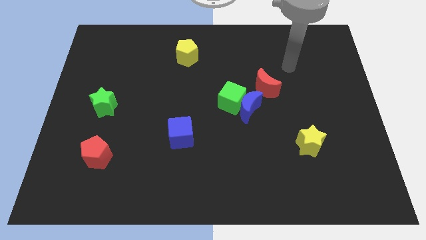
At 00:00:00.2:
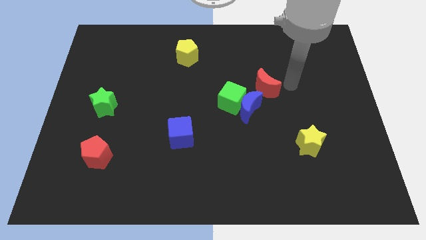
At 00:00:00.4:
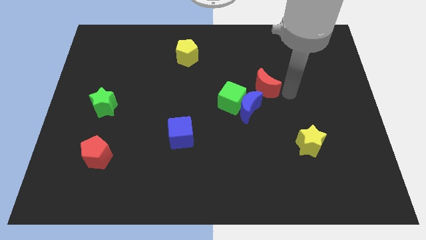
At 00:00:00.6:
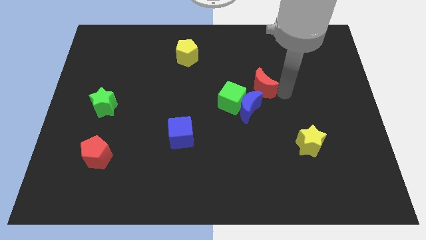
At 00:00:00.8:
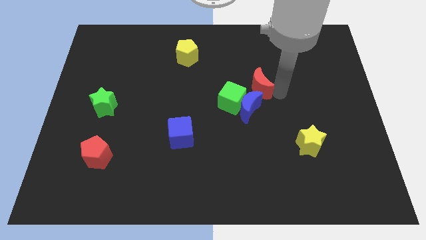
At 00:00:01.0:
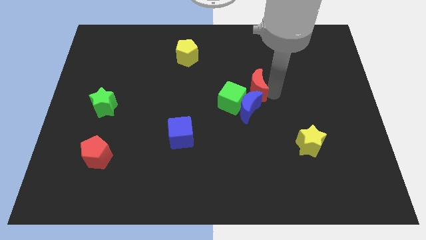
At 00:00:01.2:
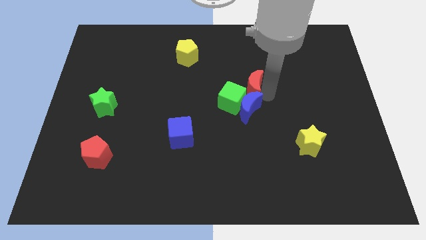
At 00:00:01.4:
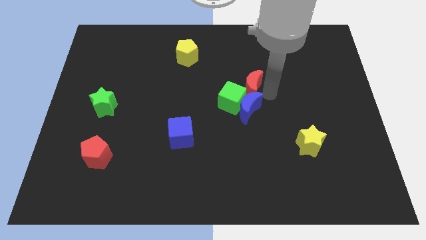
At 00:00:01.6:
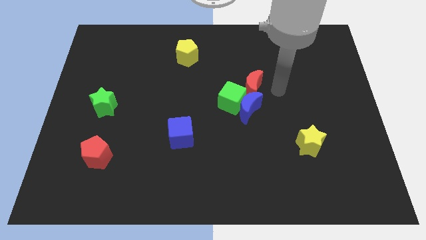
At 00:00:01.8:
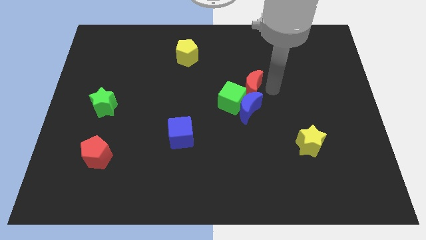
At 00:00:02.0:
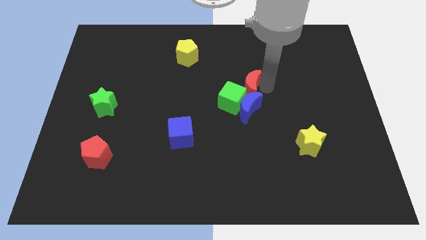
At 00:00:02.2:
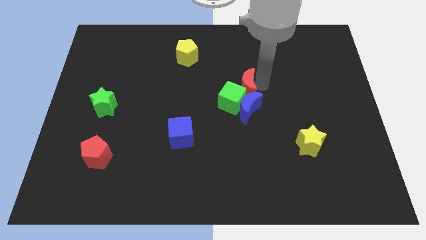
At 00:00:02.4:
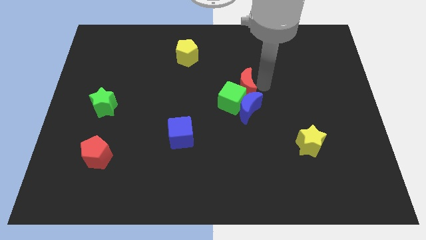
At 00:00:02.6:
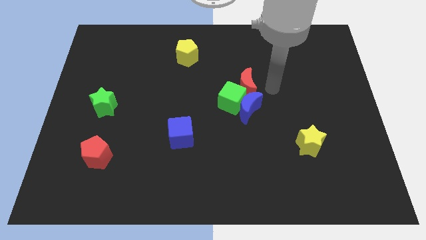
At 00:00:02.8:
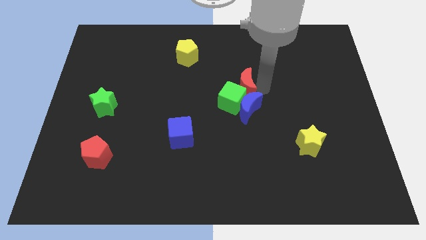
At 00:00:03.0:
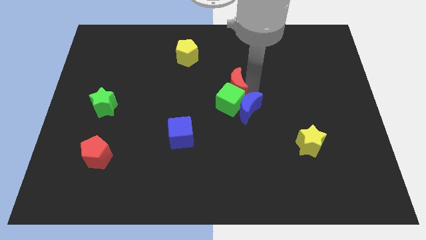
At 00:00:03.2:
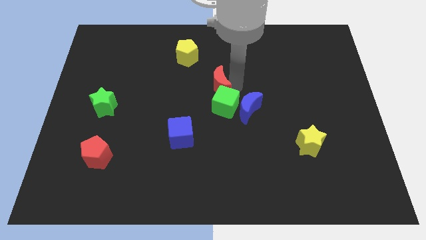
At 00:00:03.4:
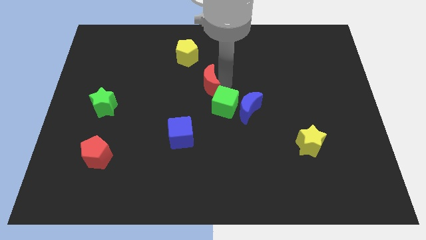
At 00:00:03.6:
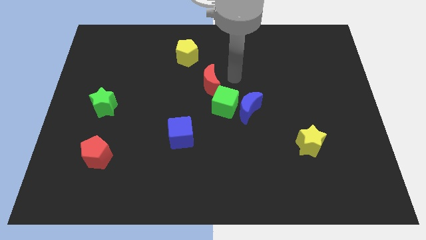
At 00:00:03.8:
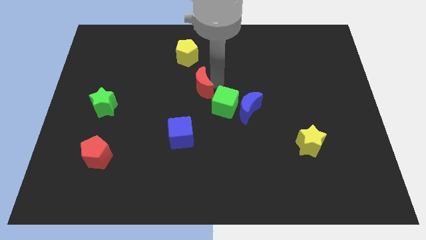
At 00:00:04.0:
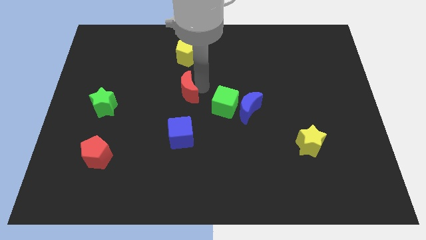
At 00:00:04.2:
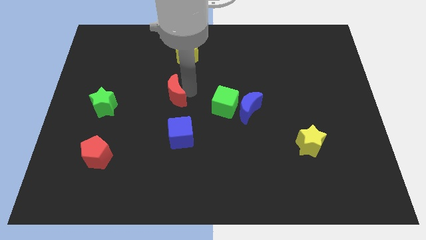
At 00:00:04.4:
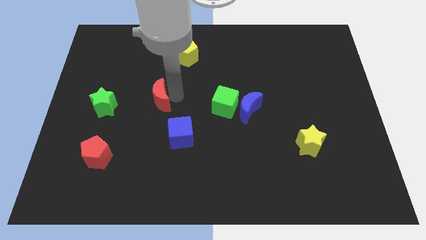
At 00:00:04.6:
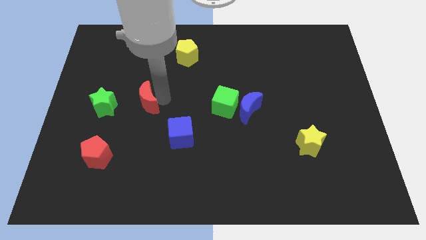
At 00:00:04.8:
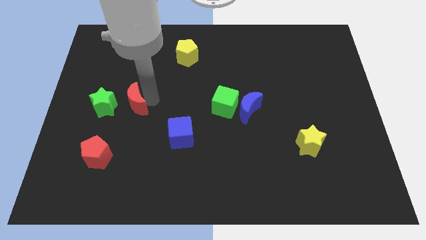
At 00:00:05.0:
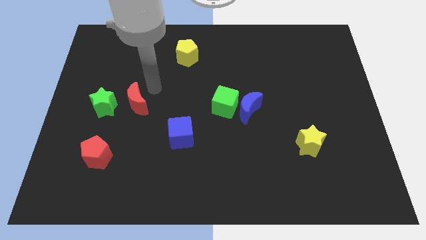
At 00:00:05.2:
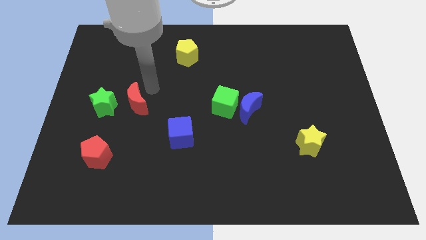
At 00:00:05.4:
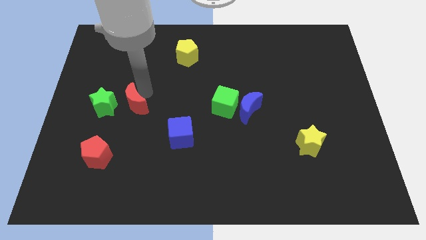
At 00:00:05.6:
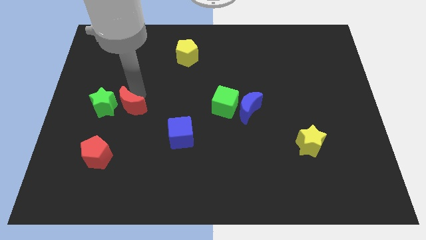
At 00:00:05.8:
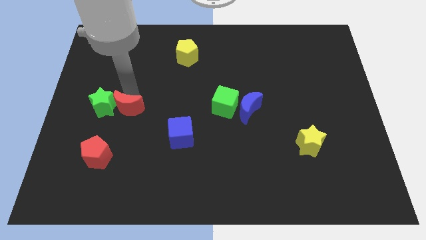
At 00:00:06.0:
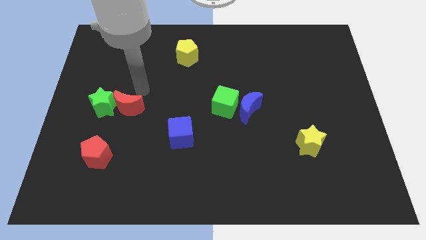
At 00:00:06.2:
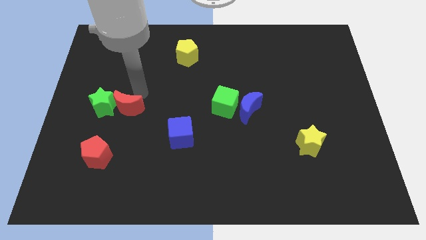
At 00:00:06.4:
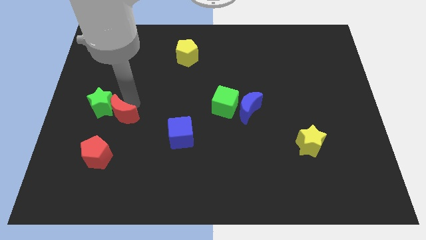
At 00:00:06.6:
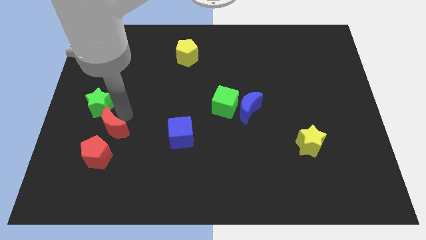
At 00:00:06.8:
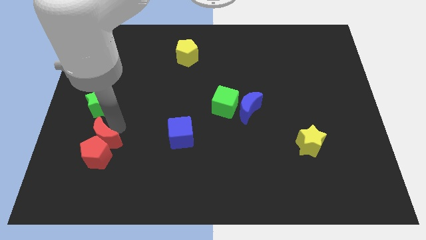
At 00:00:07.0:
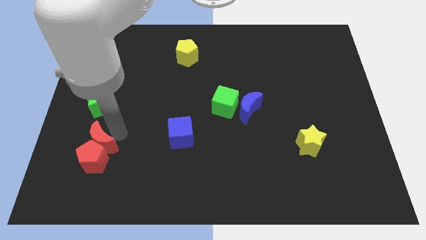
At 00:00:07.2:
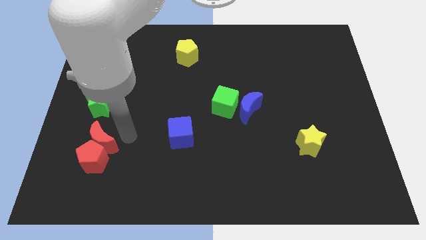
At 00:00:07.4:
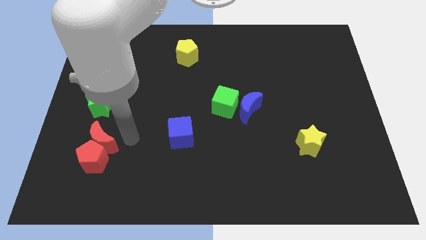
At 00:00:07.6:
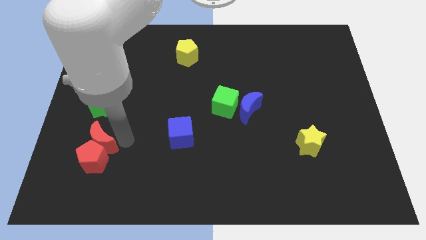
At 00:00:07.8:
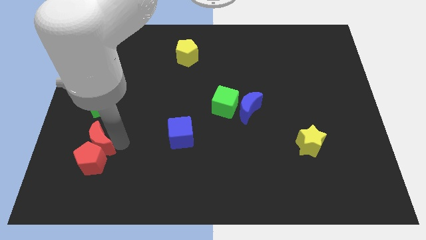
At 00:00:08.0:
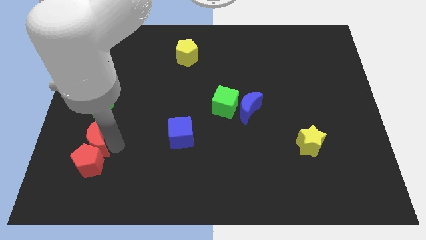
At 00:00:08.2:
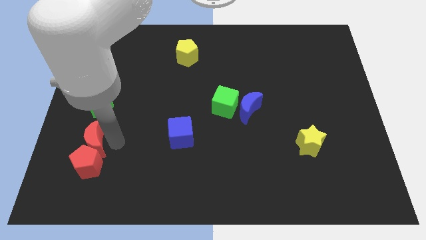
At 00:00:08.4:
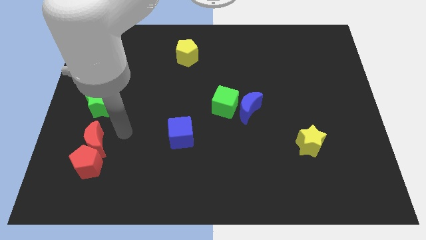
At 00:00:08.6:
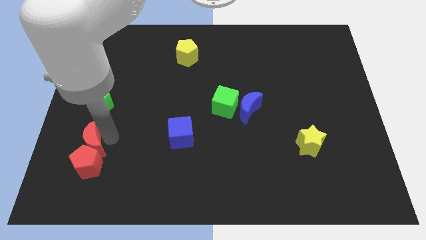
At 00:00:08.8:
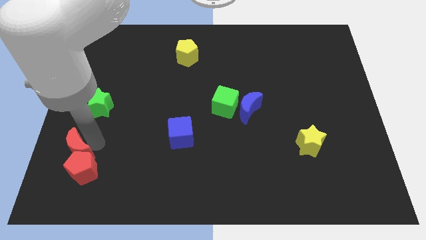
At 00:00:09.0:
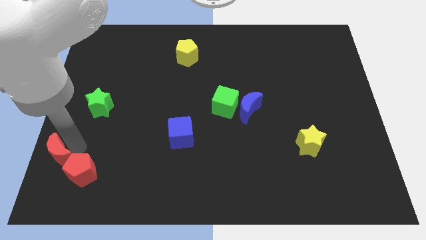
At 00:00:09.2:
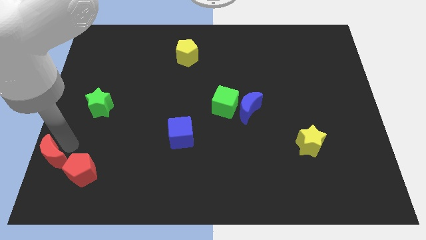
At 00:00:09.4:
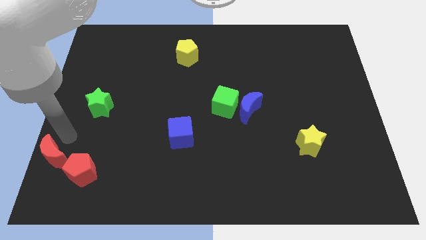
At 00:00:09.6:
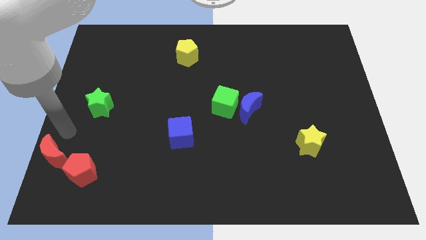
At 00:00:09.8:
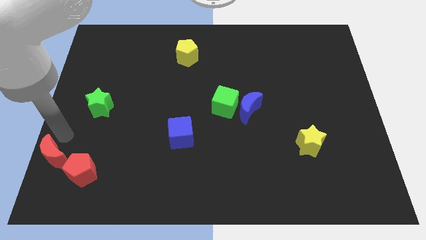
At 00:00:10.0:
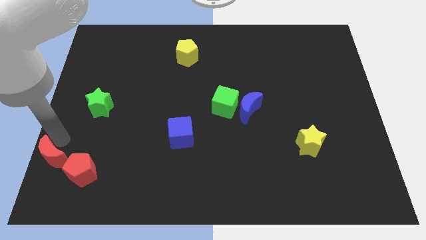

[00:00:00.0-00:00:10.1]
push the red moon to the bottom left corner

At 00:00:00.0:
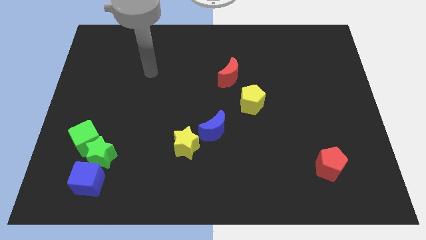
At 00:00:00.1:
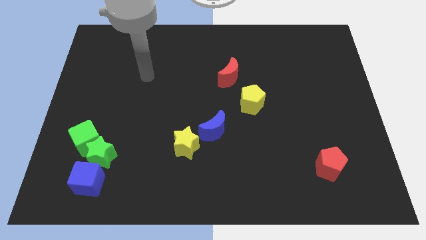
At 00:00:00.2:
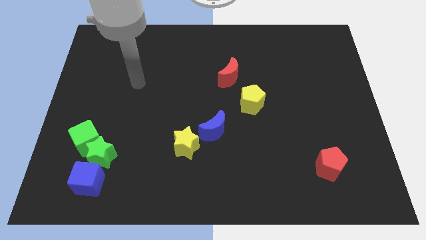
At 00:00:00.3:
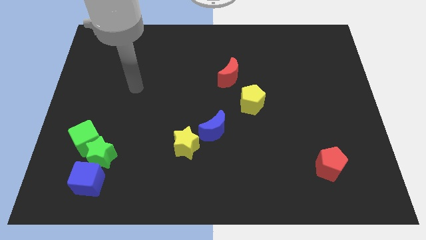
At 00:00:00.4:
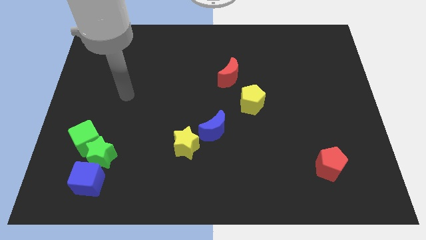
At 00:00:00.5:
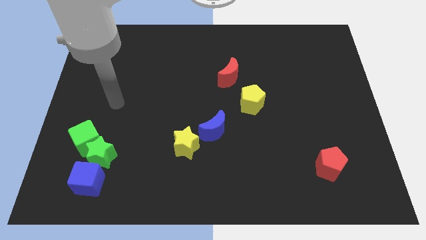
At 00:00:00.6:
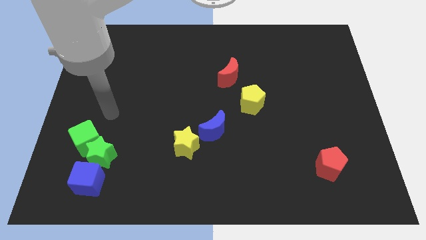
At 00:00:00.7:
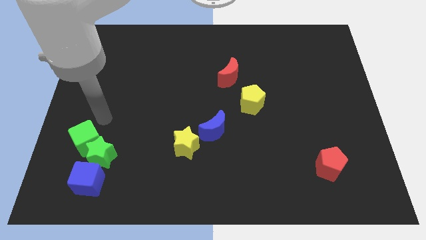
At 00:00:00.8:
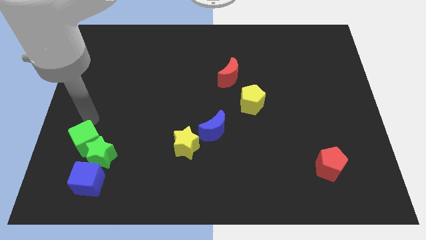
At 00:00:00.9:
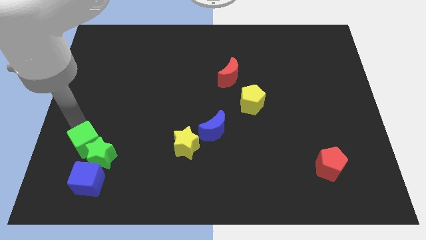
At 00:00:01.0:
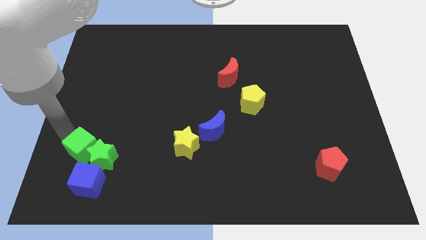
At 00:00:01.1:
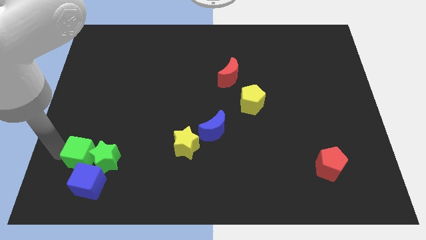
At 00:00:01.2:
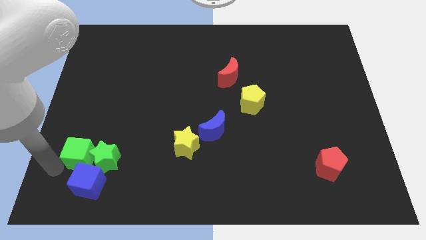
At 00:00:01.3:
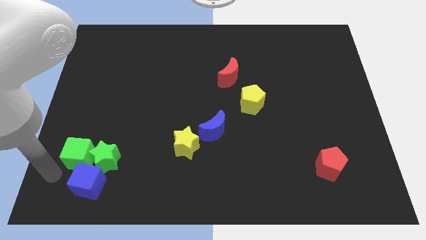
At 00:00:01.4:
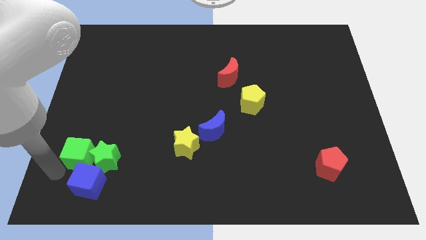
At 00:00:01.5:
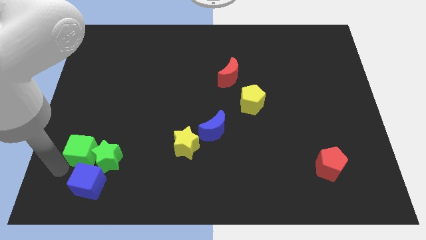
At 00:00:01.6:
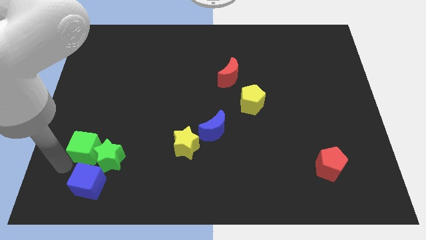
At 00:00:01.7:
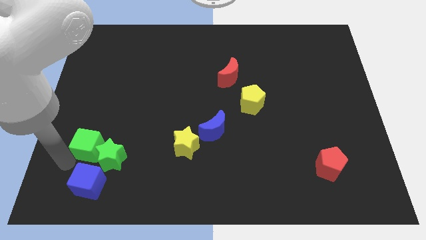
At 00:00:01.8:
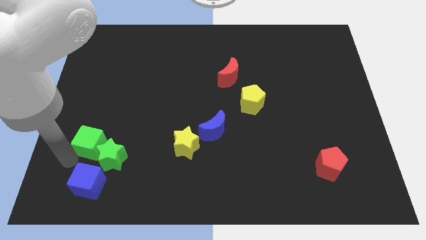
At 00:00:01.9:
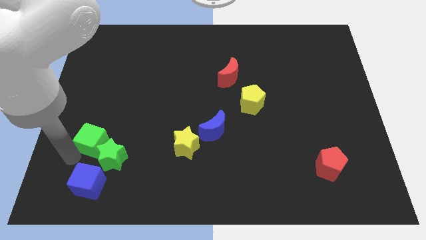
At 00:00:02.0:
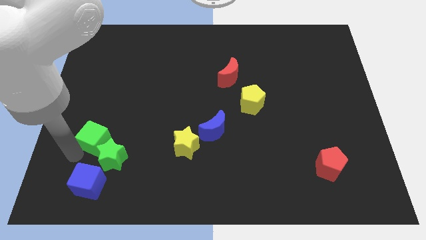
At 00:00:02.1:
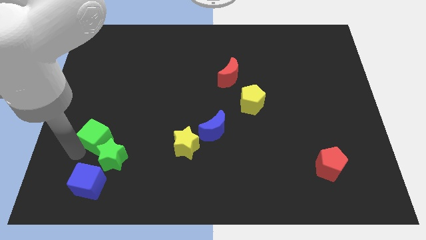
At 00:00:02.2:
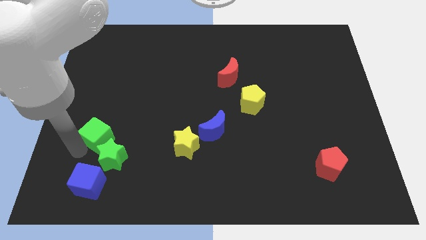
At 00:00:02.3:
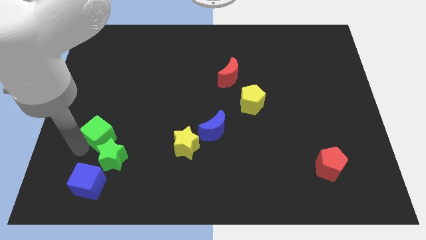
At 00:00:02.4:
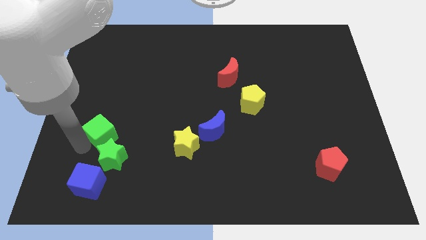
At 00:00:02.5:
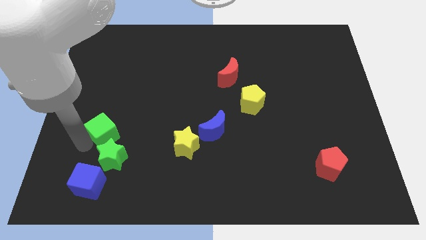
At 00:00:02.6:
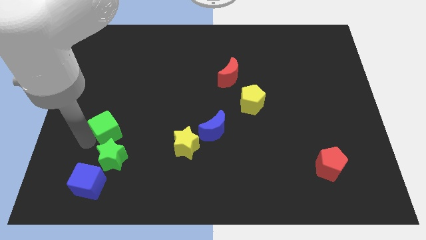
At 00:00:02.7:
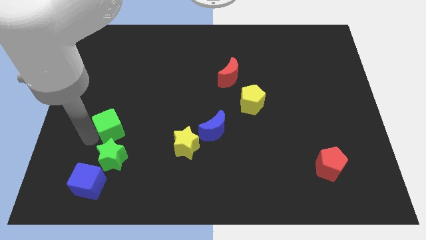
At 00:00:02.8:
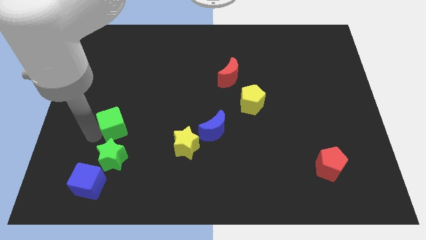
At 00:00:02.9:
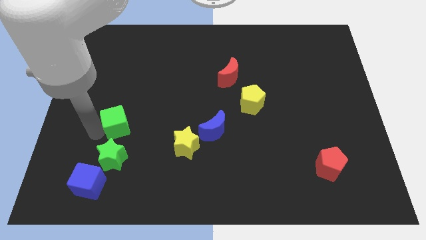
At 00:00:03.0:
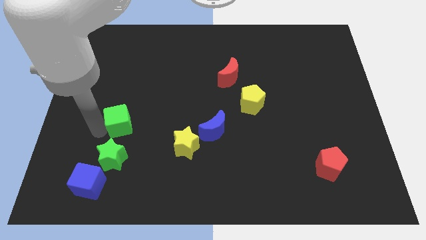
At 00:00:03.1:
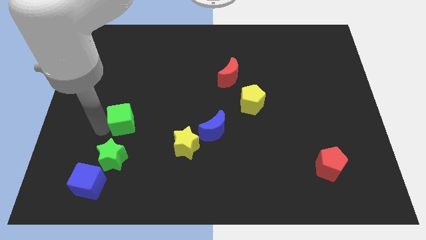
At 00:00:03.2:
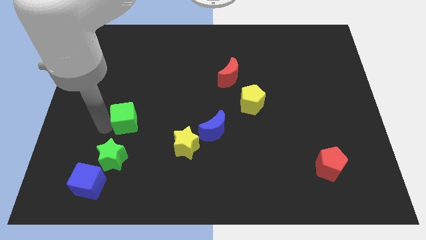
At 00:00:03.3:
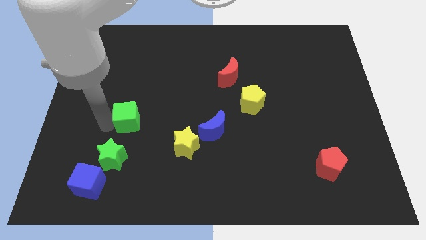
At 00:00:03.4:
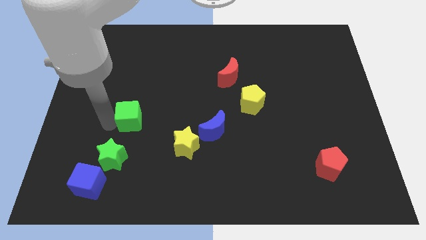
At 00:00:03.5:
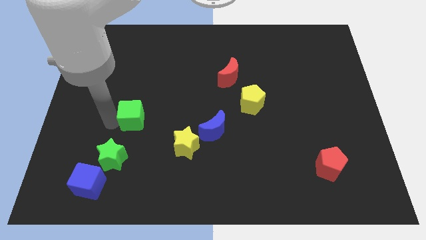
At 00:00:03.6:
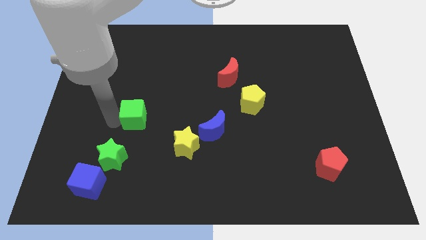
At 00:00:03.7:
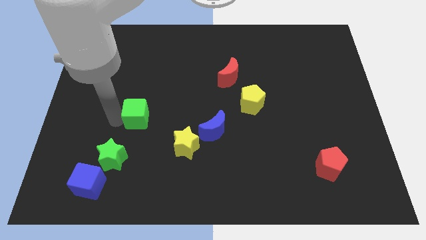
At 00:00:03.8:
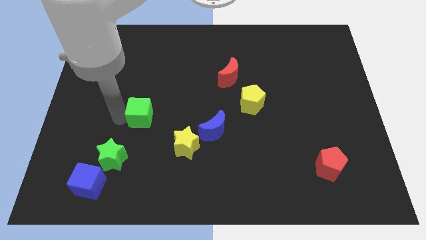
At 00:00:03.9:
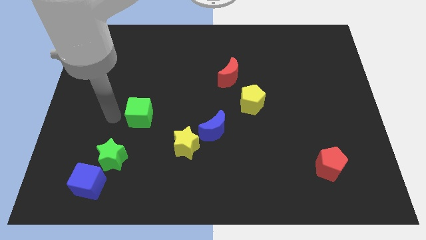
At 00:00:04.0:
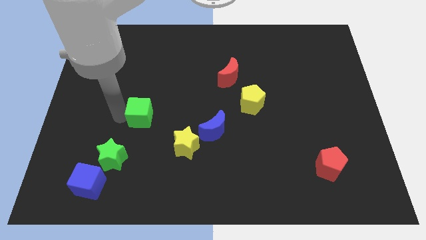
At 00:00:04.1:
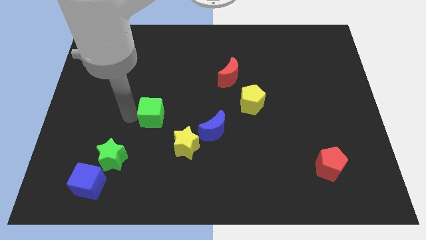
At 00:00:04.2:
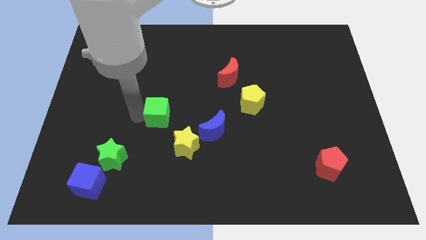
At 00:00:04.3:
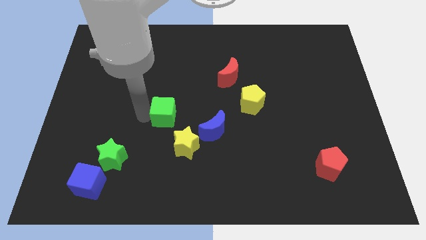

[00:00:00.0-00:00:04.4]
move the green cube to the middle
